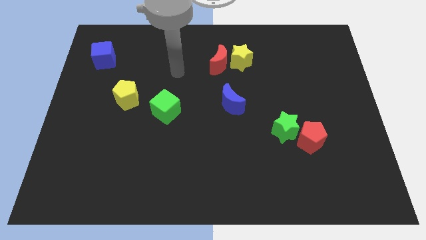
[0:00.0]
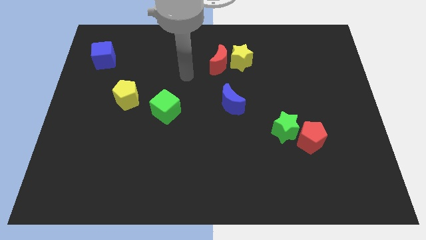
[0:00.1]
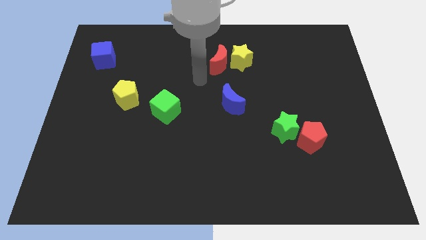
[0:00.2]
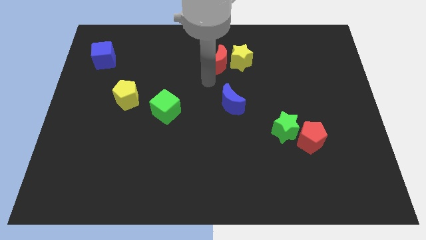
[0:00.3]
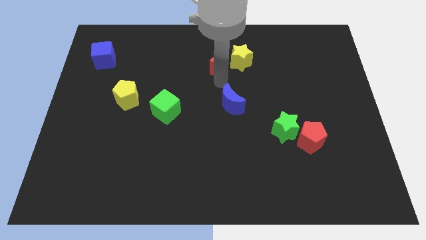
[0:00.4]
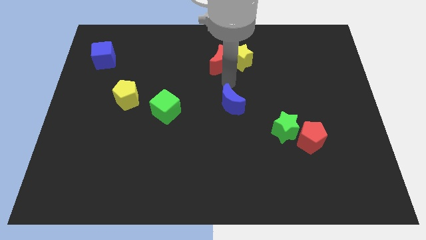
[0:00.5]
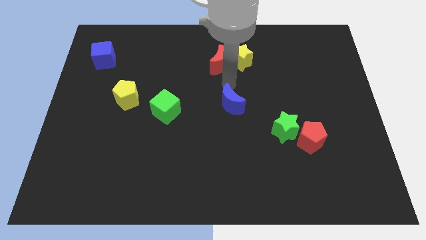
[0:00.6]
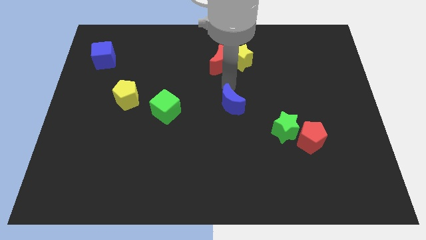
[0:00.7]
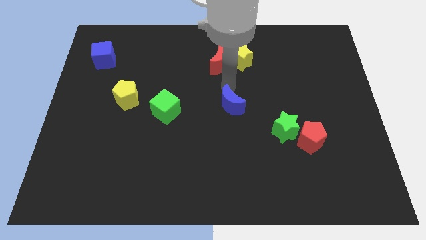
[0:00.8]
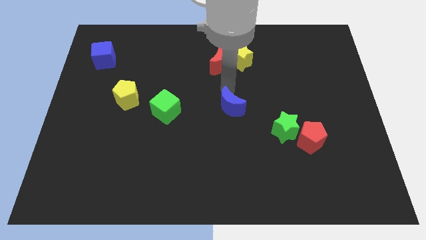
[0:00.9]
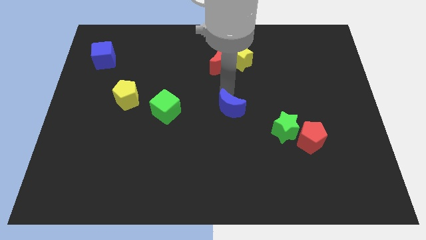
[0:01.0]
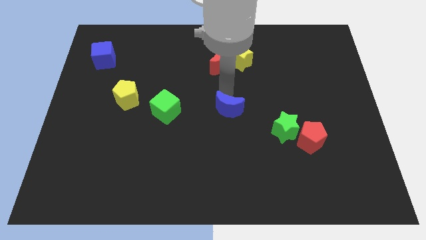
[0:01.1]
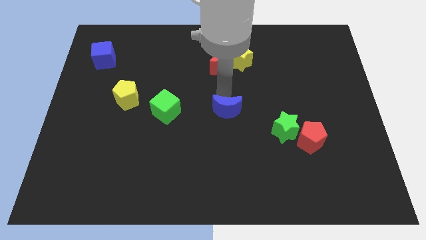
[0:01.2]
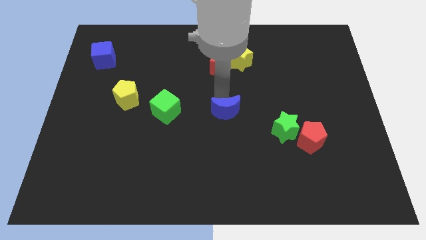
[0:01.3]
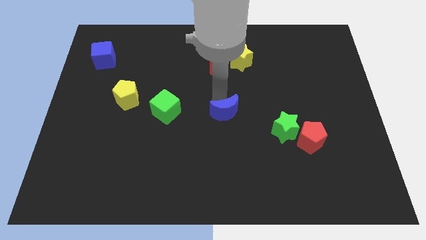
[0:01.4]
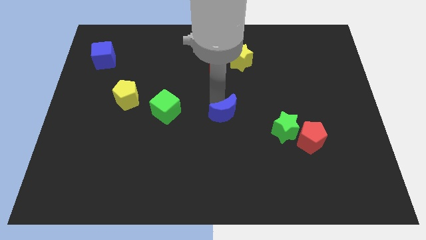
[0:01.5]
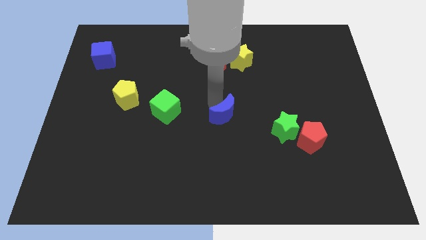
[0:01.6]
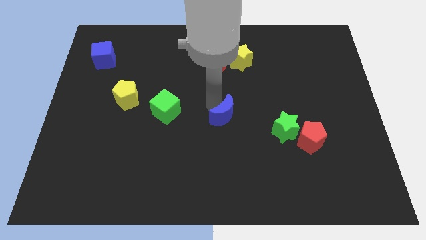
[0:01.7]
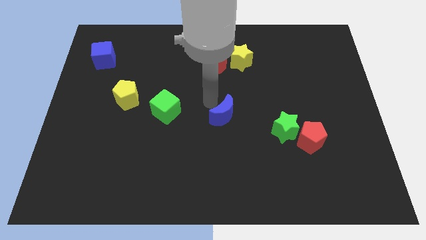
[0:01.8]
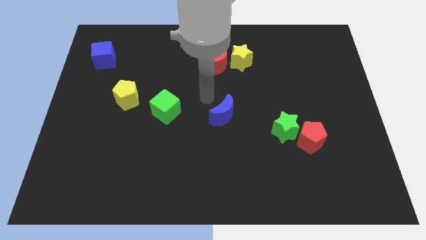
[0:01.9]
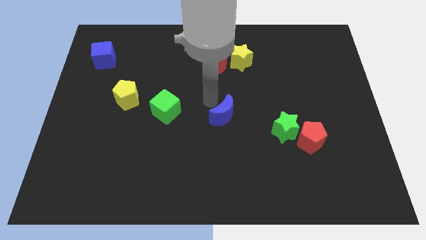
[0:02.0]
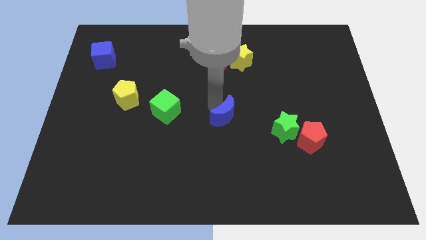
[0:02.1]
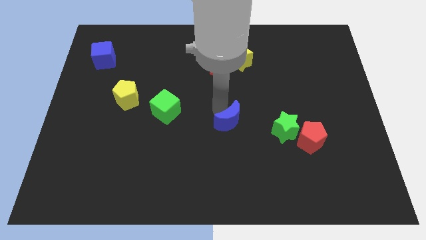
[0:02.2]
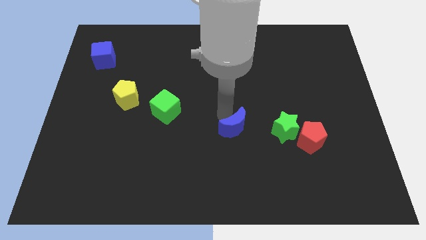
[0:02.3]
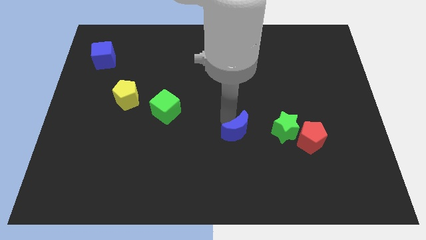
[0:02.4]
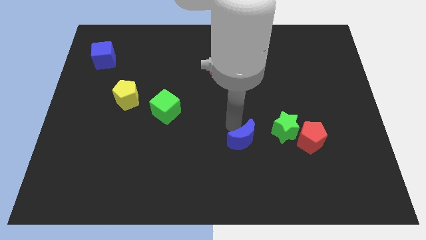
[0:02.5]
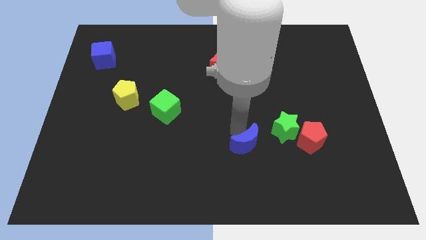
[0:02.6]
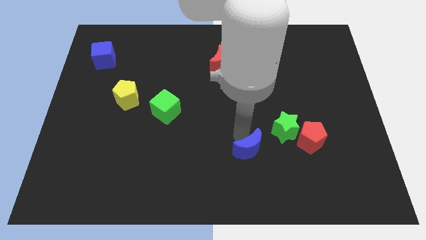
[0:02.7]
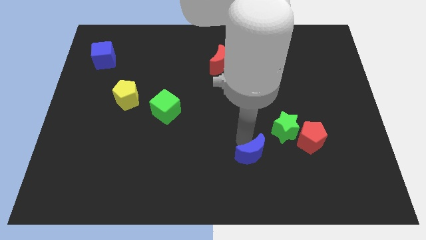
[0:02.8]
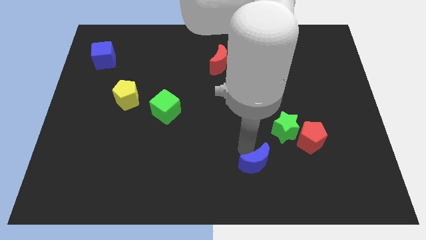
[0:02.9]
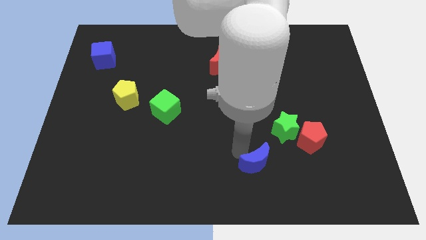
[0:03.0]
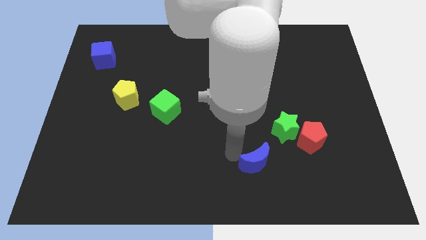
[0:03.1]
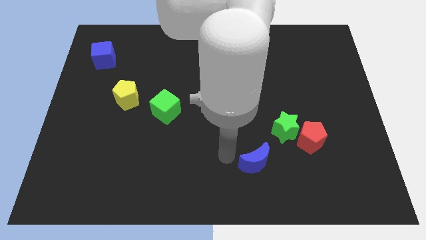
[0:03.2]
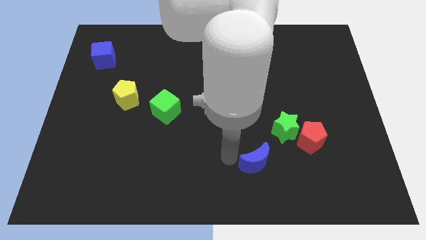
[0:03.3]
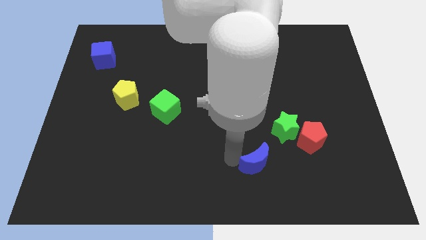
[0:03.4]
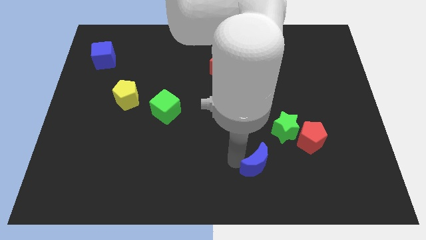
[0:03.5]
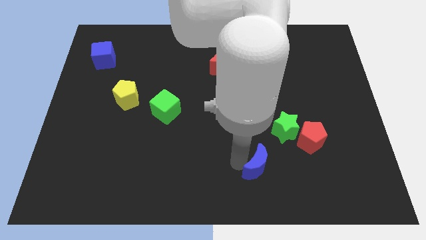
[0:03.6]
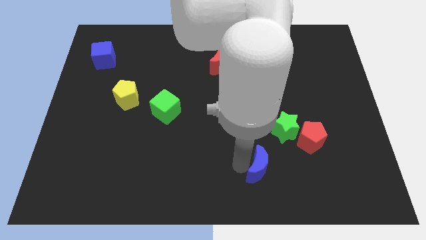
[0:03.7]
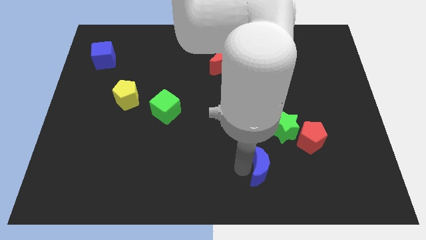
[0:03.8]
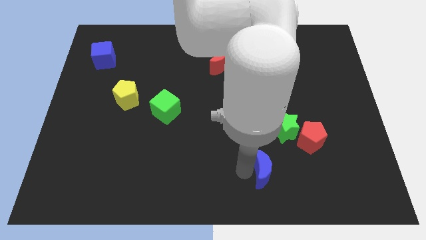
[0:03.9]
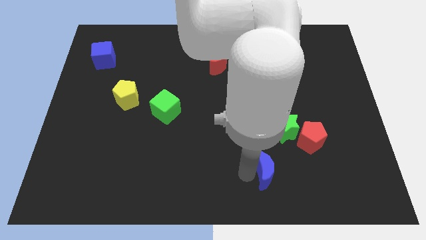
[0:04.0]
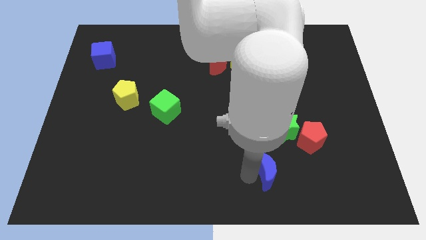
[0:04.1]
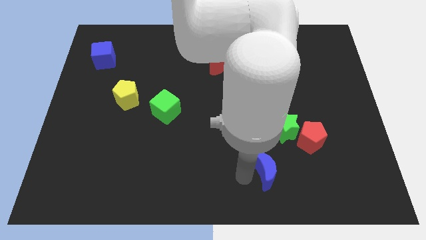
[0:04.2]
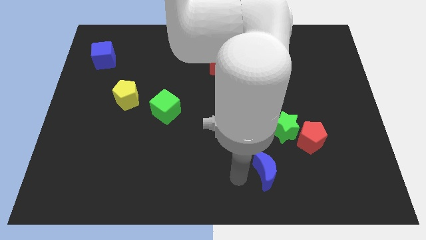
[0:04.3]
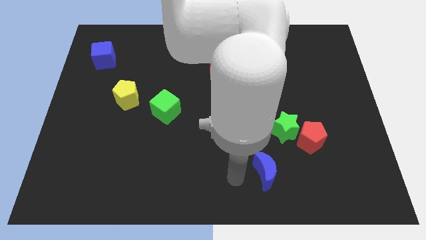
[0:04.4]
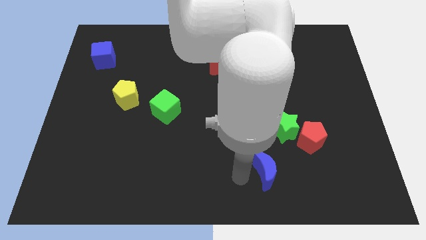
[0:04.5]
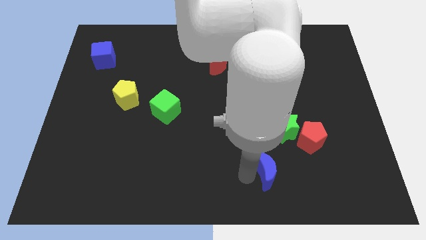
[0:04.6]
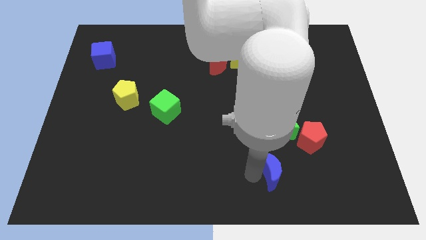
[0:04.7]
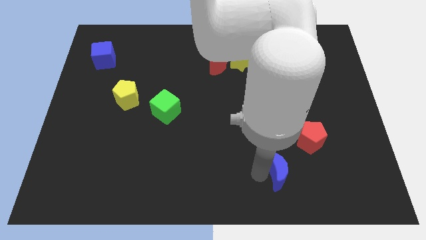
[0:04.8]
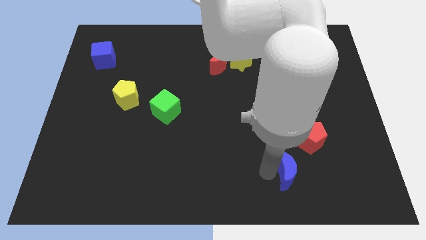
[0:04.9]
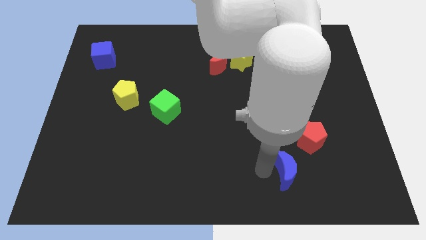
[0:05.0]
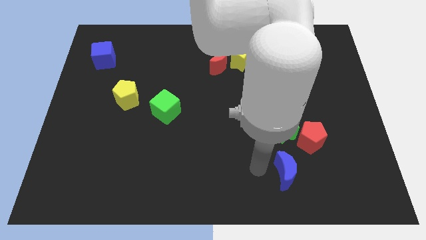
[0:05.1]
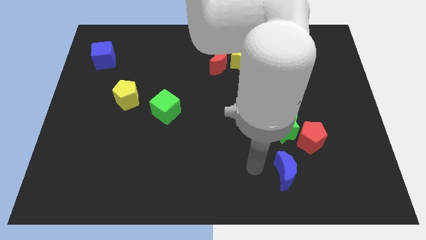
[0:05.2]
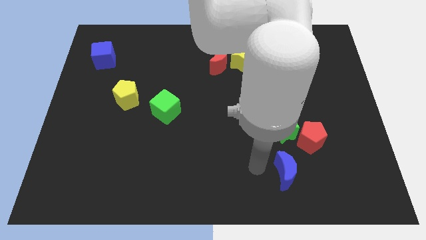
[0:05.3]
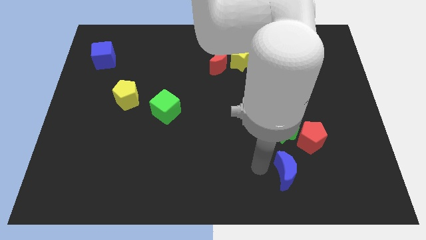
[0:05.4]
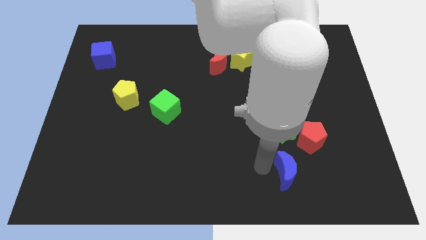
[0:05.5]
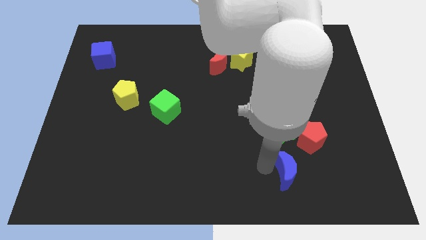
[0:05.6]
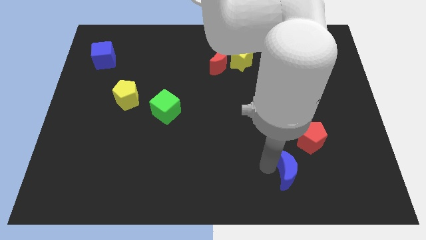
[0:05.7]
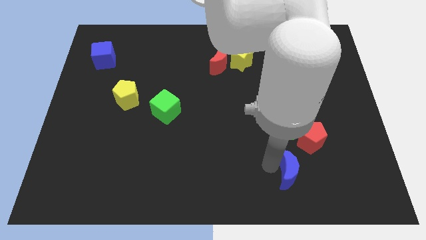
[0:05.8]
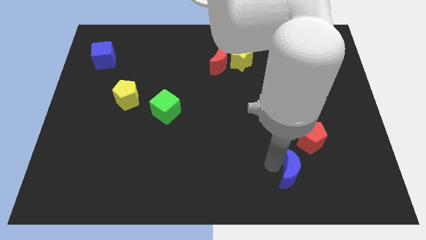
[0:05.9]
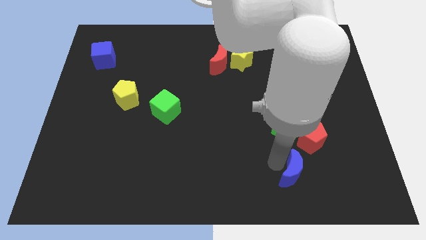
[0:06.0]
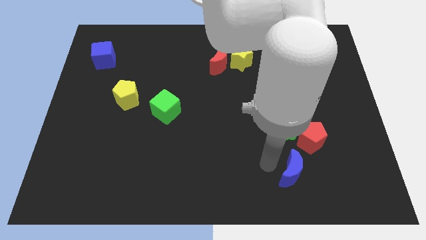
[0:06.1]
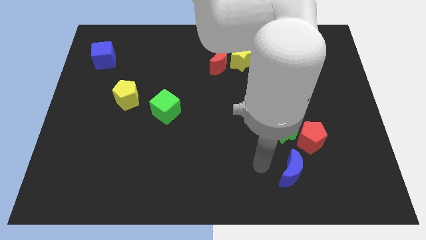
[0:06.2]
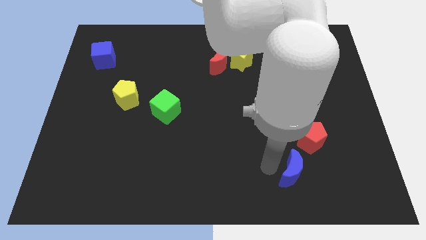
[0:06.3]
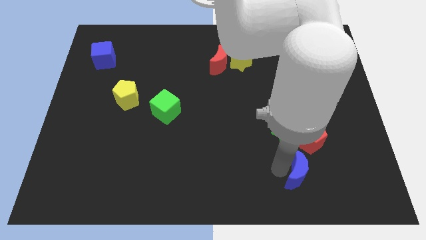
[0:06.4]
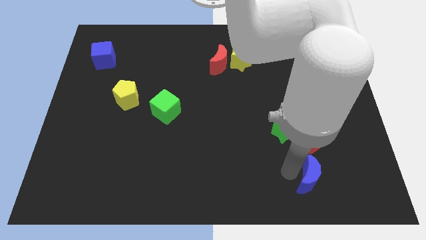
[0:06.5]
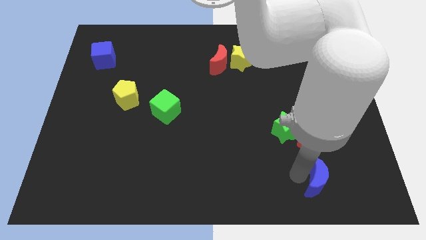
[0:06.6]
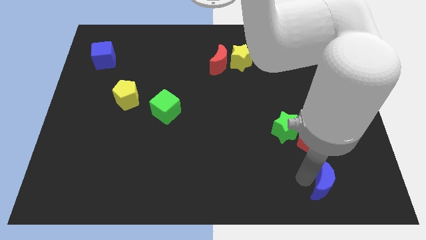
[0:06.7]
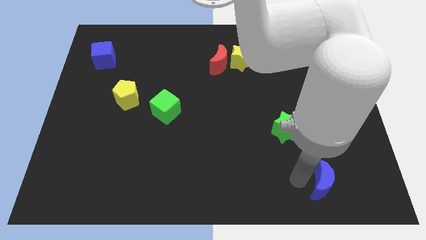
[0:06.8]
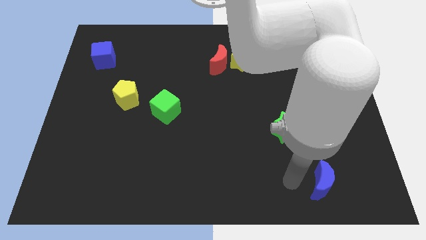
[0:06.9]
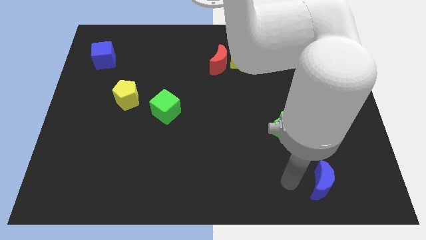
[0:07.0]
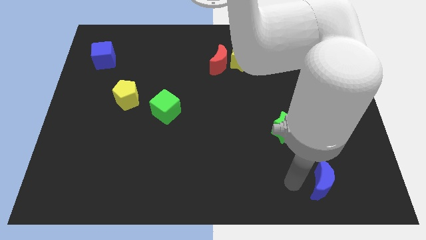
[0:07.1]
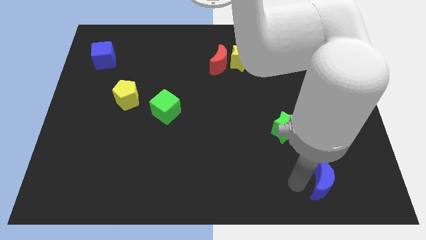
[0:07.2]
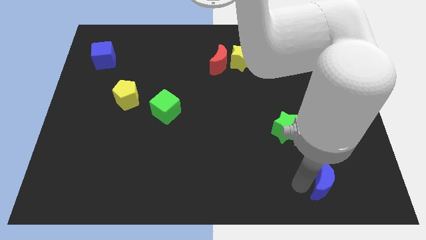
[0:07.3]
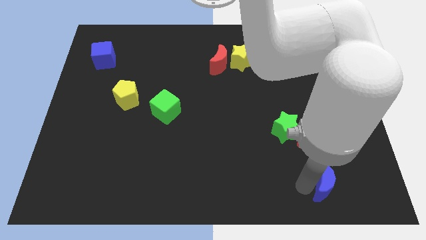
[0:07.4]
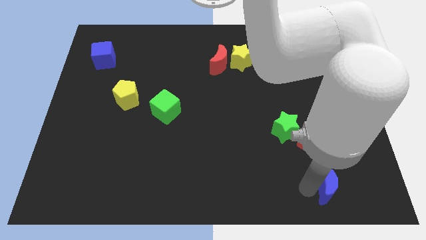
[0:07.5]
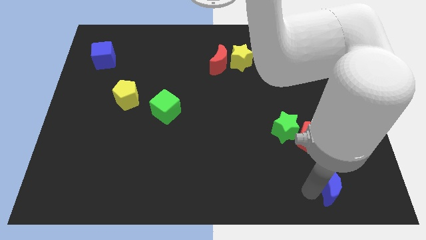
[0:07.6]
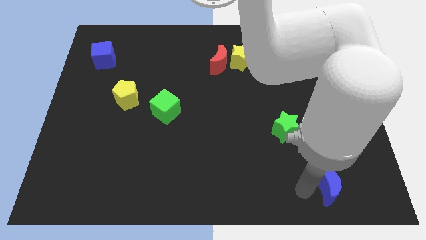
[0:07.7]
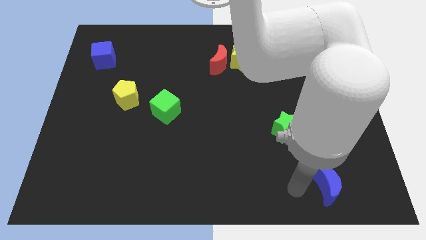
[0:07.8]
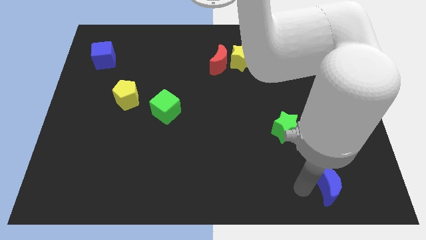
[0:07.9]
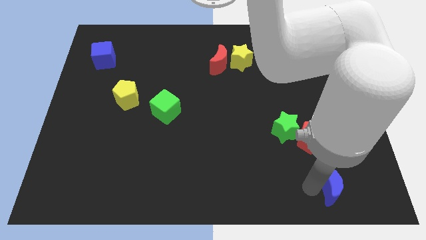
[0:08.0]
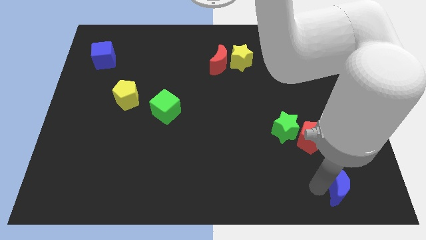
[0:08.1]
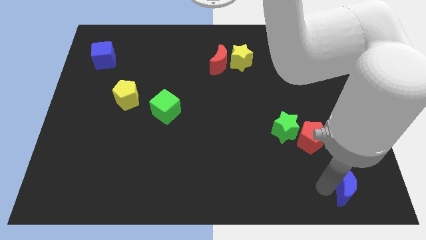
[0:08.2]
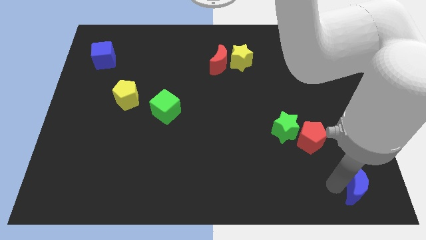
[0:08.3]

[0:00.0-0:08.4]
move the blue moon to the lower right corner
